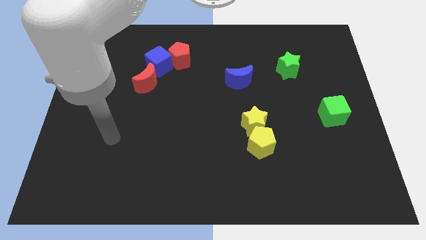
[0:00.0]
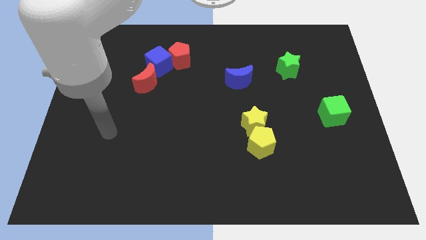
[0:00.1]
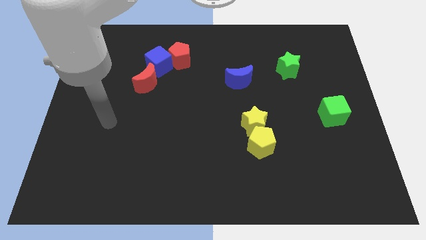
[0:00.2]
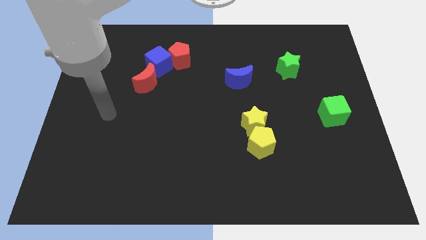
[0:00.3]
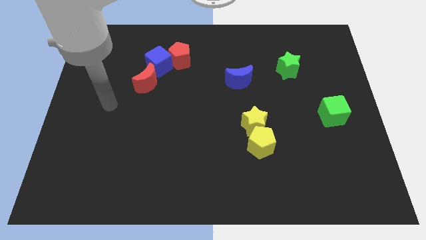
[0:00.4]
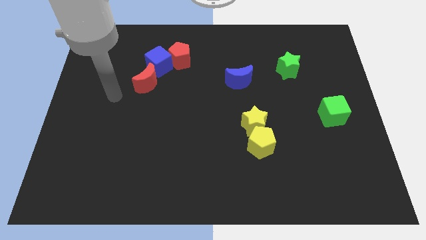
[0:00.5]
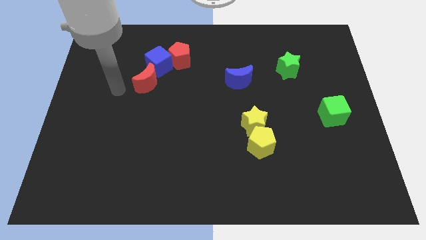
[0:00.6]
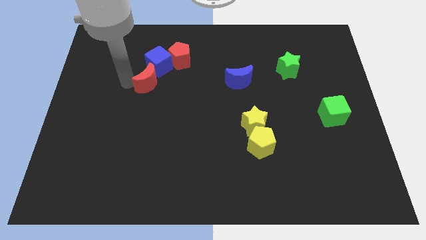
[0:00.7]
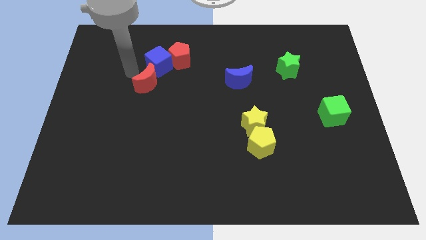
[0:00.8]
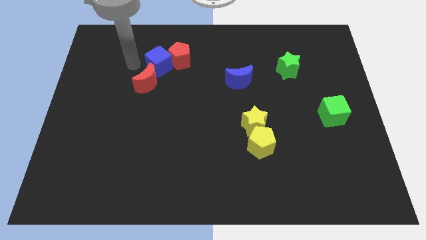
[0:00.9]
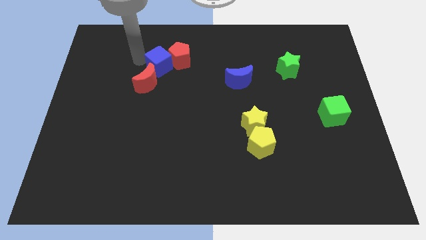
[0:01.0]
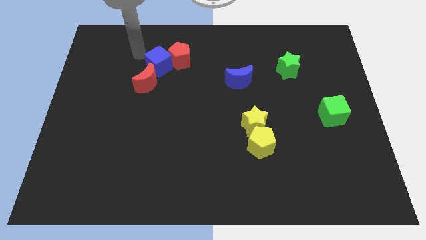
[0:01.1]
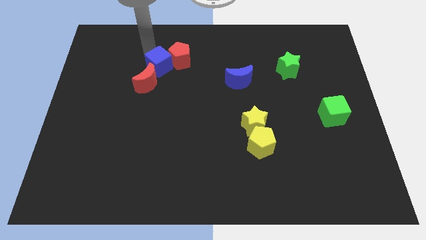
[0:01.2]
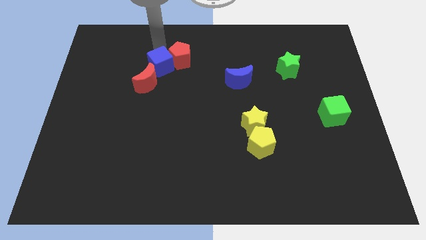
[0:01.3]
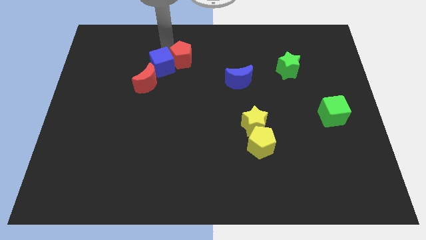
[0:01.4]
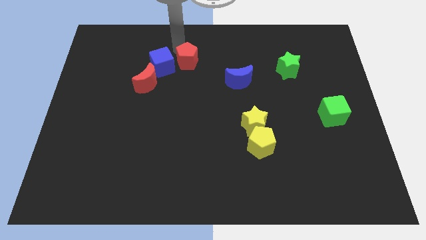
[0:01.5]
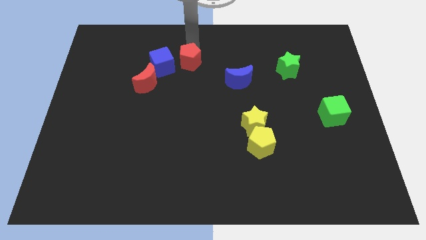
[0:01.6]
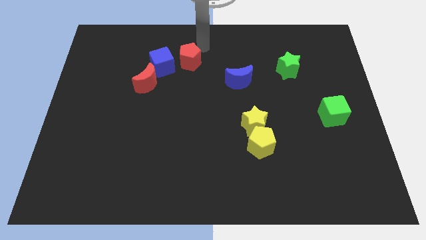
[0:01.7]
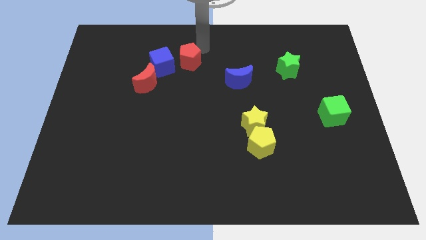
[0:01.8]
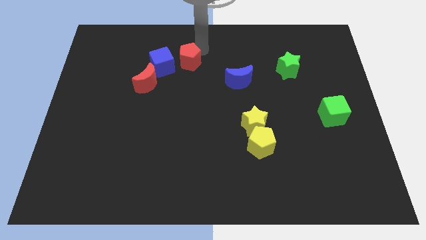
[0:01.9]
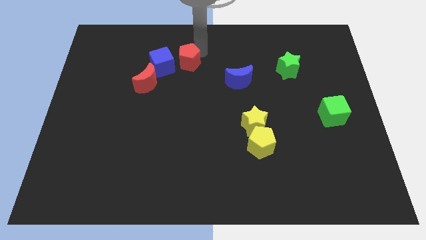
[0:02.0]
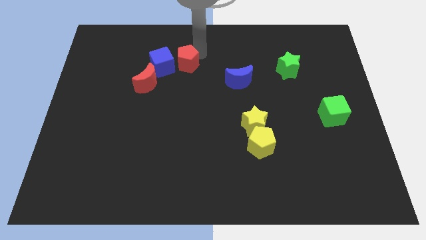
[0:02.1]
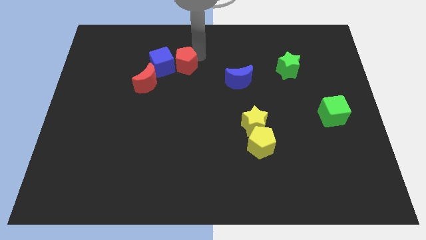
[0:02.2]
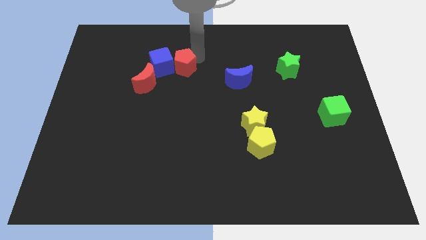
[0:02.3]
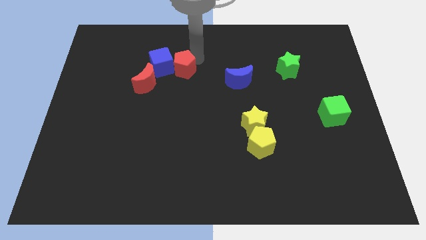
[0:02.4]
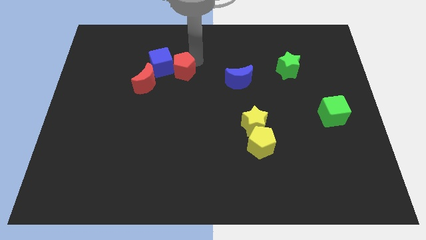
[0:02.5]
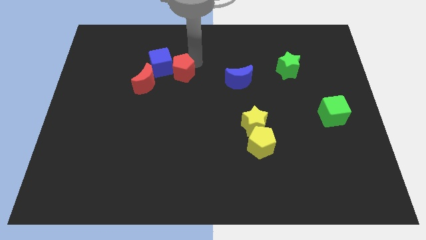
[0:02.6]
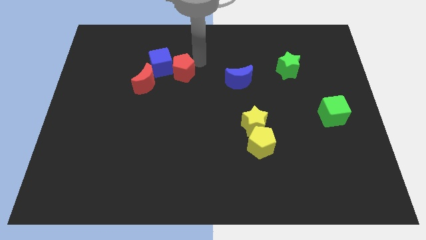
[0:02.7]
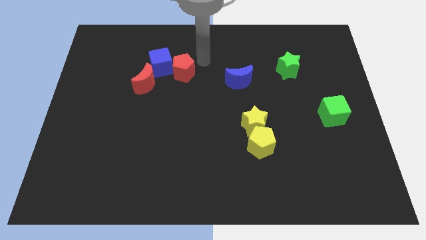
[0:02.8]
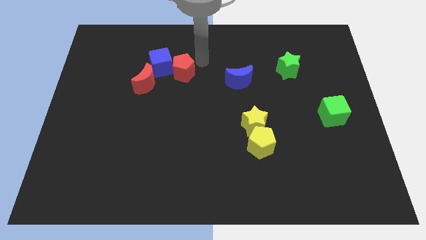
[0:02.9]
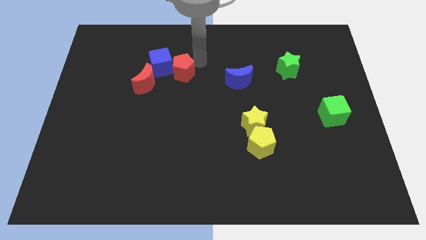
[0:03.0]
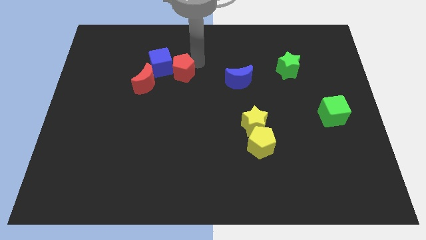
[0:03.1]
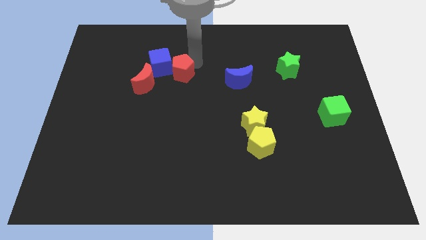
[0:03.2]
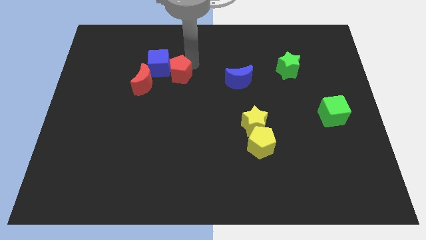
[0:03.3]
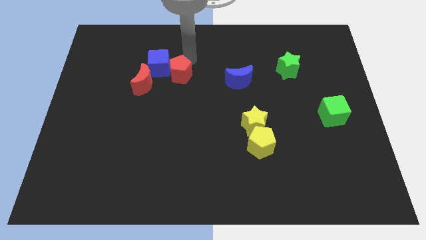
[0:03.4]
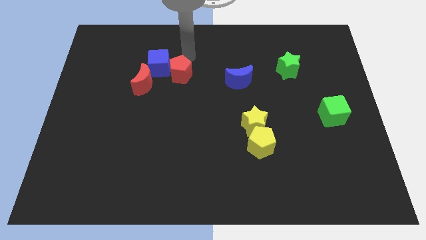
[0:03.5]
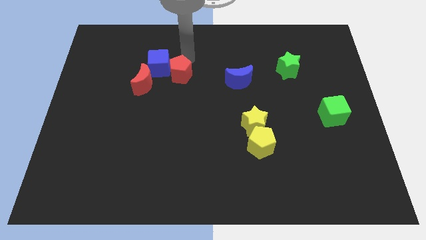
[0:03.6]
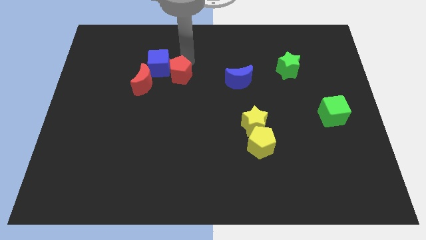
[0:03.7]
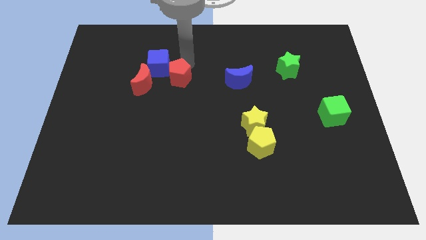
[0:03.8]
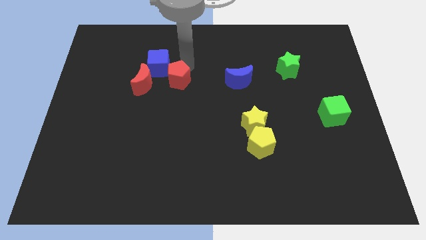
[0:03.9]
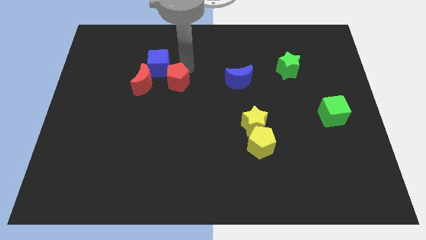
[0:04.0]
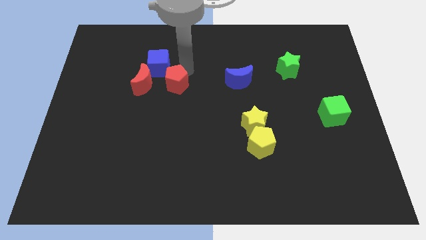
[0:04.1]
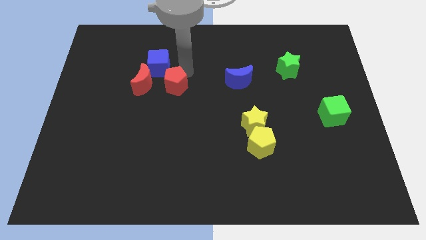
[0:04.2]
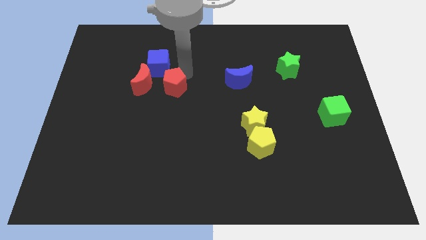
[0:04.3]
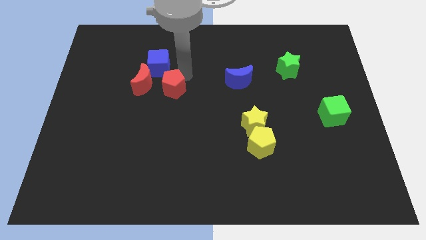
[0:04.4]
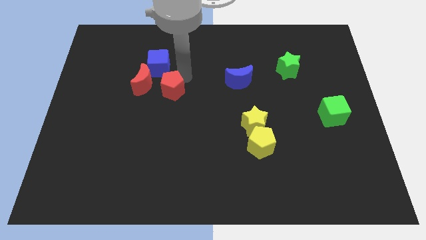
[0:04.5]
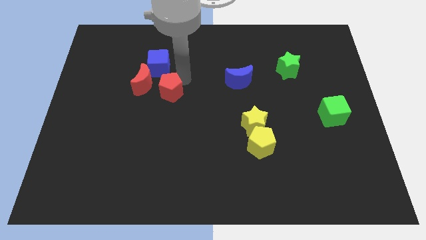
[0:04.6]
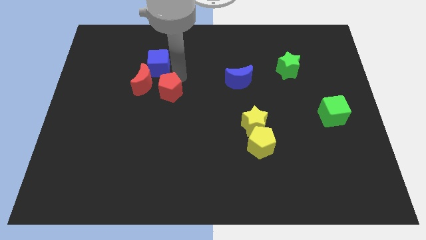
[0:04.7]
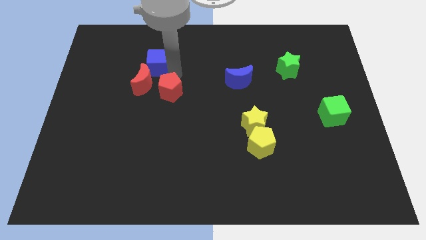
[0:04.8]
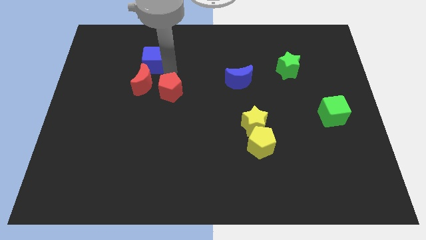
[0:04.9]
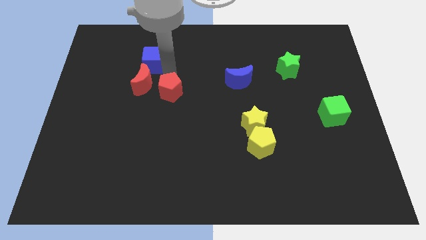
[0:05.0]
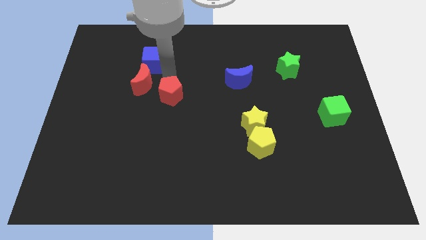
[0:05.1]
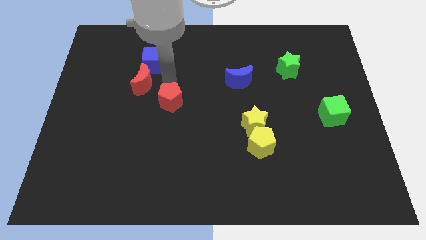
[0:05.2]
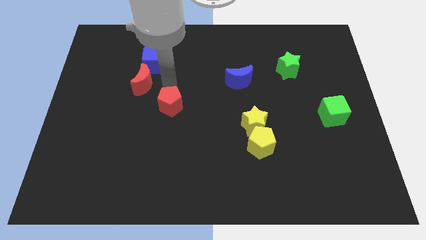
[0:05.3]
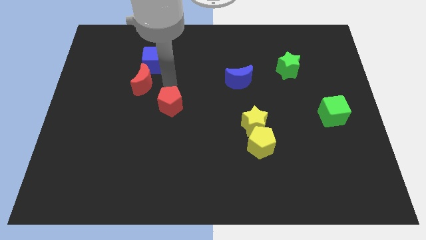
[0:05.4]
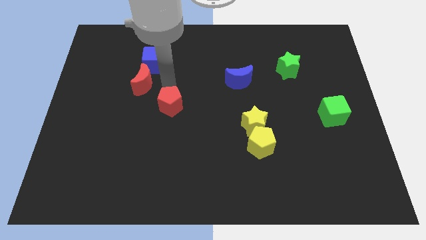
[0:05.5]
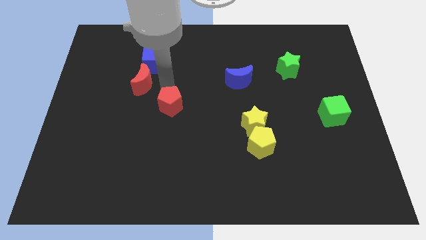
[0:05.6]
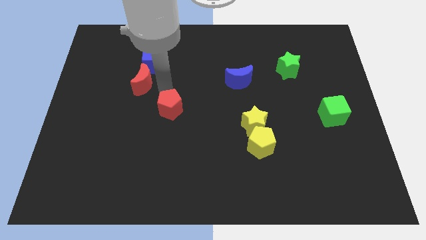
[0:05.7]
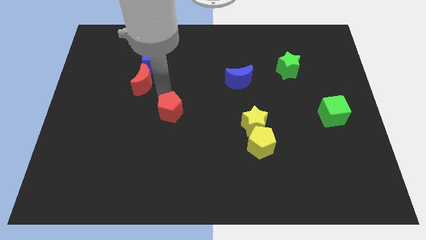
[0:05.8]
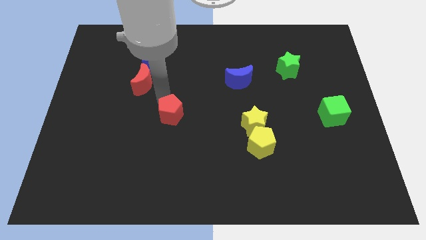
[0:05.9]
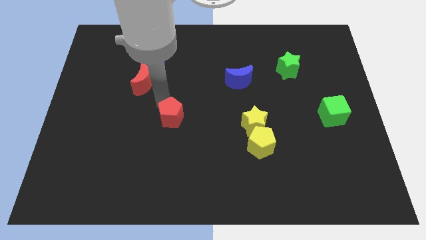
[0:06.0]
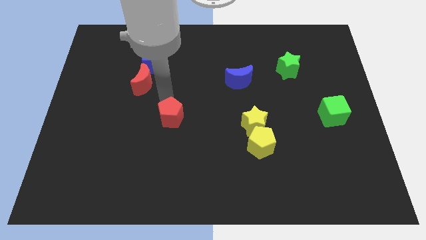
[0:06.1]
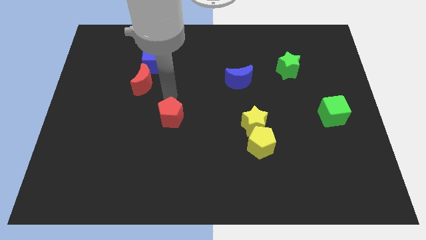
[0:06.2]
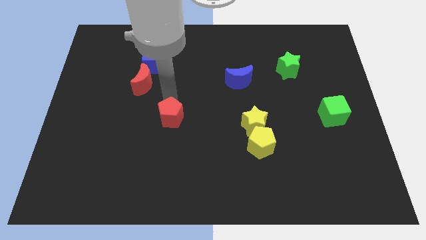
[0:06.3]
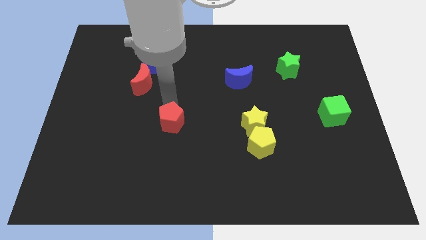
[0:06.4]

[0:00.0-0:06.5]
move the red pentagon downwards

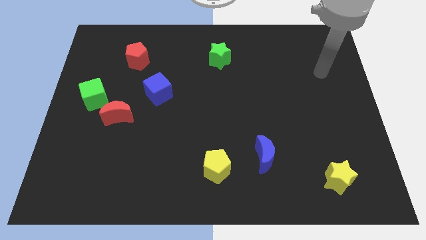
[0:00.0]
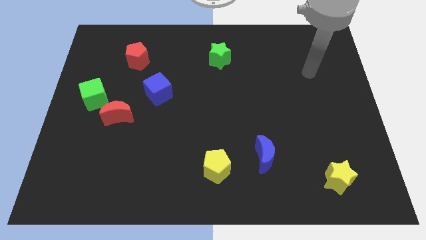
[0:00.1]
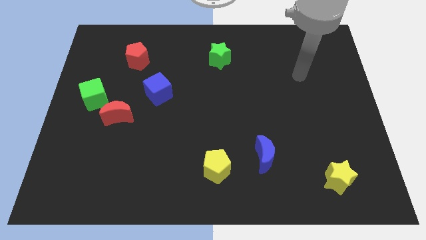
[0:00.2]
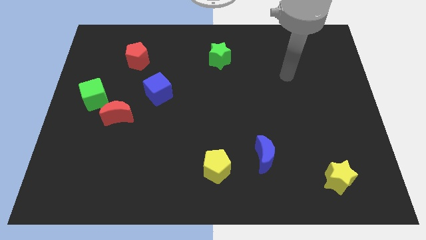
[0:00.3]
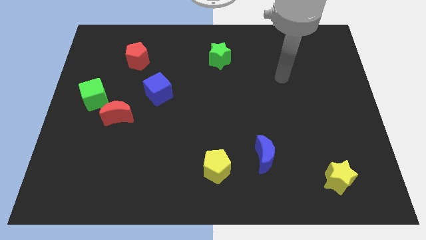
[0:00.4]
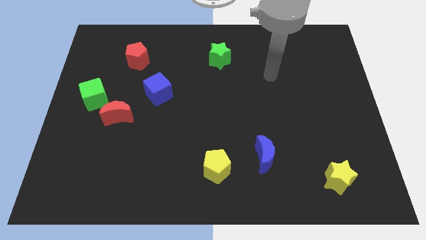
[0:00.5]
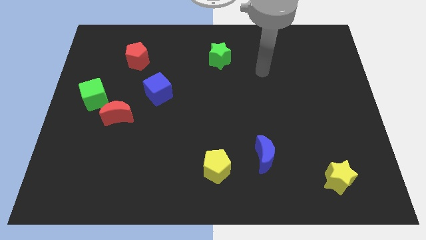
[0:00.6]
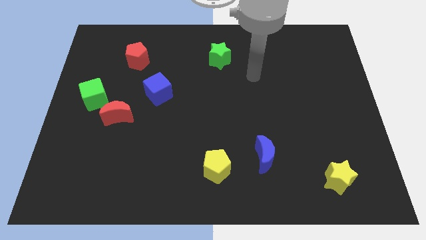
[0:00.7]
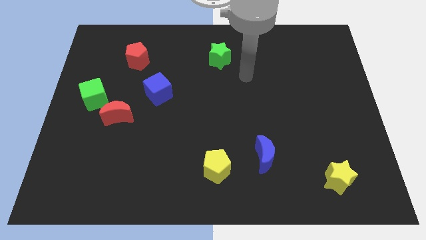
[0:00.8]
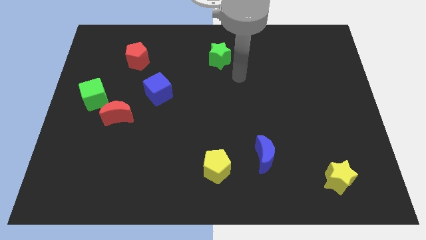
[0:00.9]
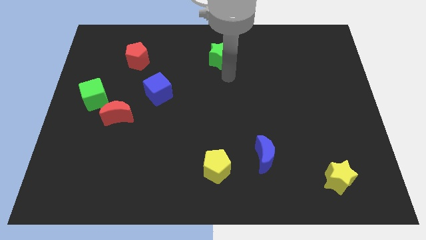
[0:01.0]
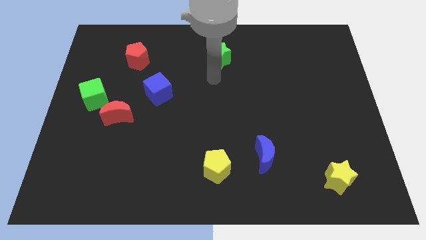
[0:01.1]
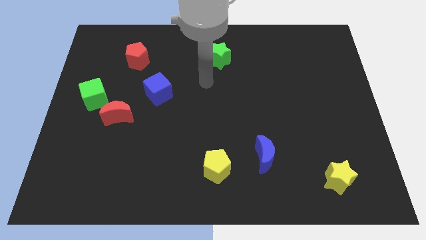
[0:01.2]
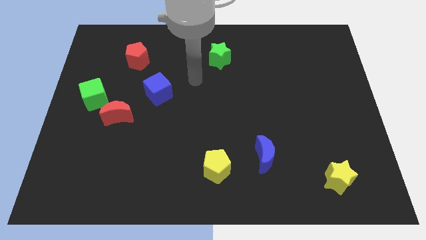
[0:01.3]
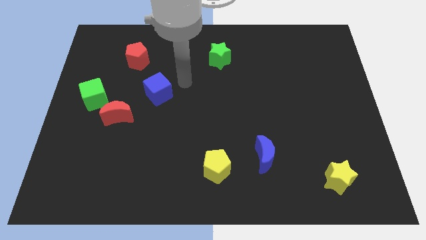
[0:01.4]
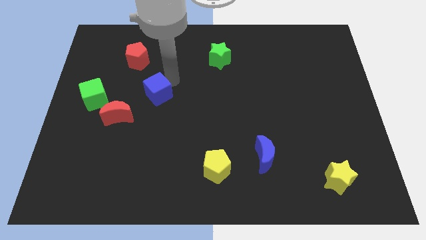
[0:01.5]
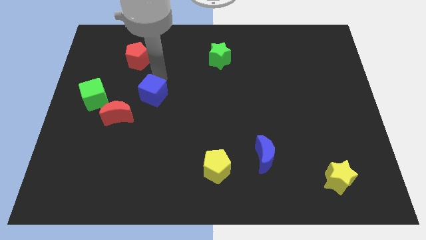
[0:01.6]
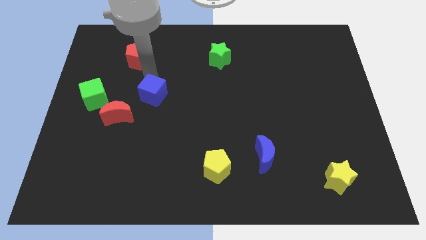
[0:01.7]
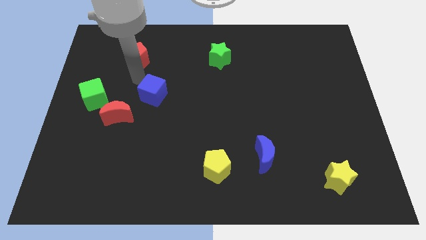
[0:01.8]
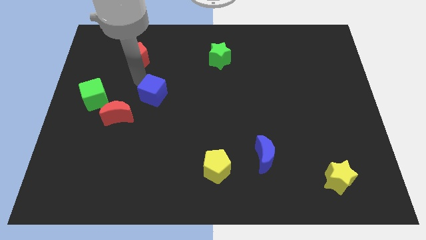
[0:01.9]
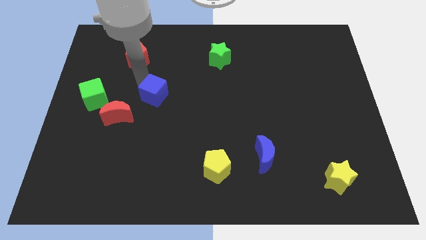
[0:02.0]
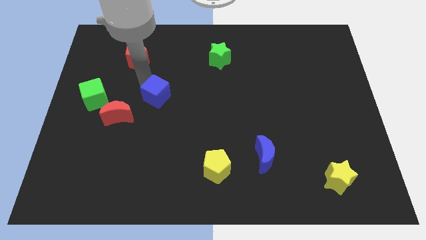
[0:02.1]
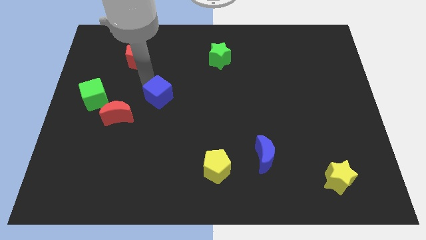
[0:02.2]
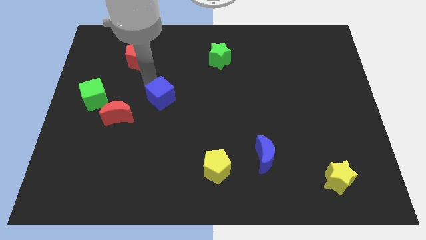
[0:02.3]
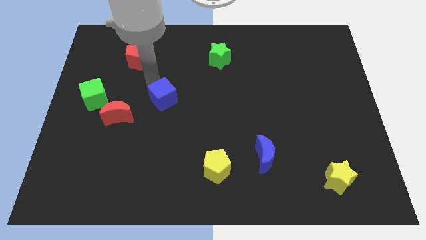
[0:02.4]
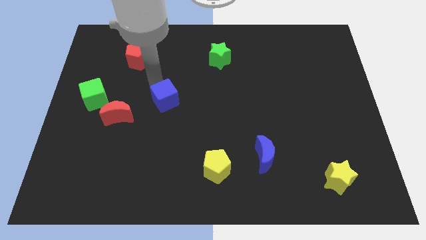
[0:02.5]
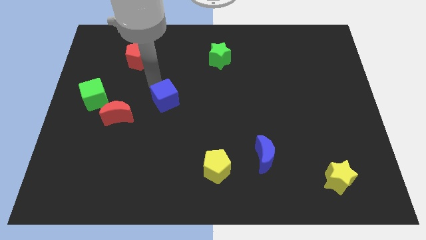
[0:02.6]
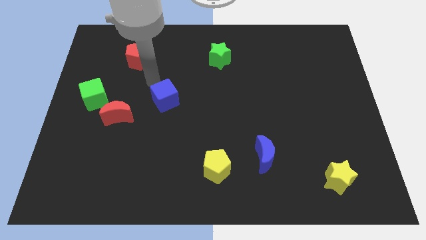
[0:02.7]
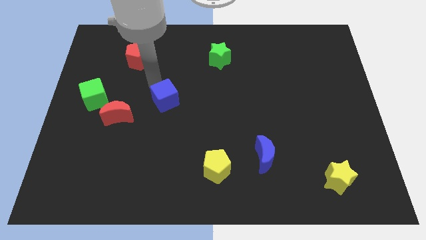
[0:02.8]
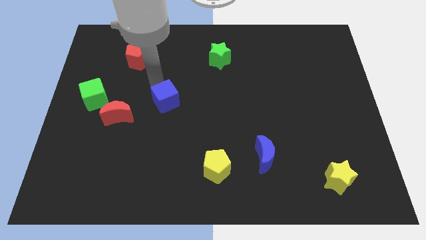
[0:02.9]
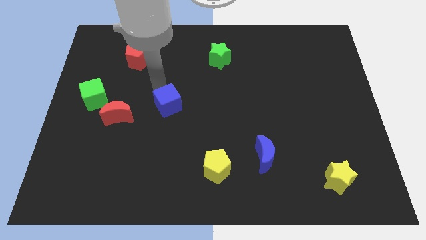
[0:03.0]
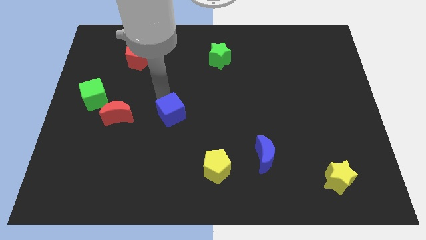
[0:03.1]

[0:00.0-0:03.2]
slide the blue cube slightly diagonally downwards and to the right
